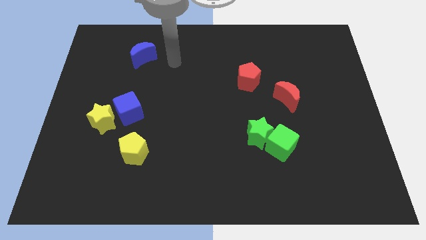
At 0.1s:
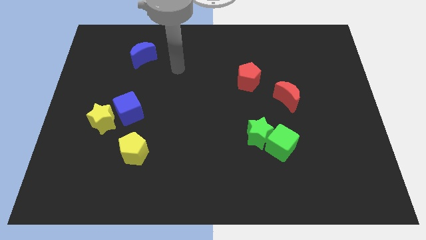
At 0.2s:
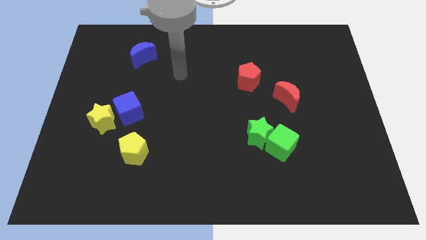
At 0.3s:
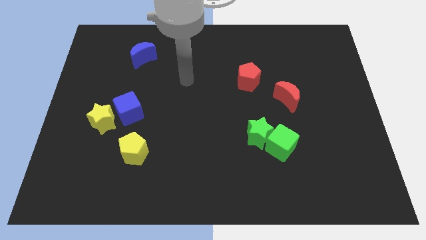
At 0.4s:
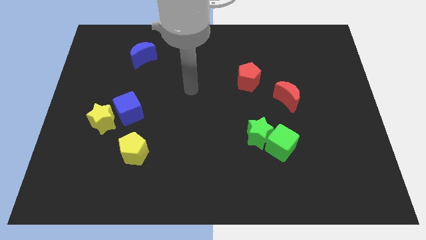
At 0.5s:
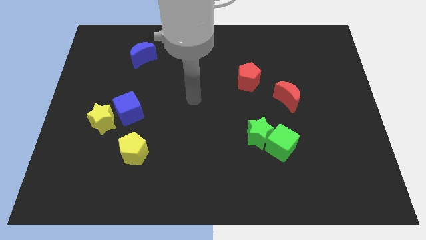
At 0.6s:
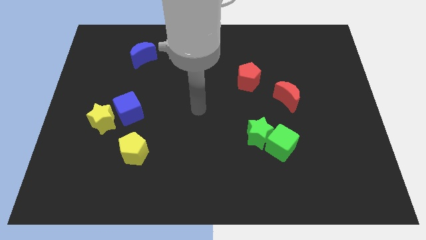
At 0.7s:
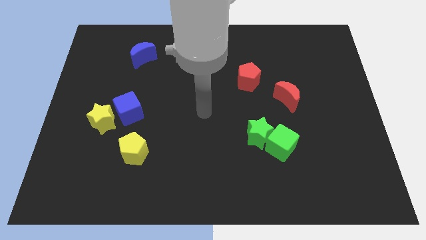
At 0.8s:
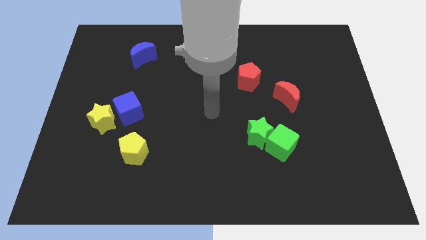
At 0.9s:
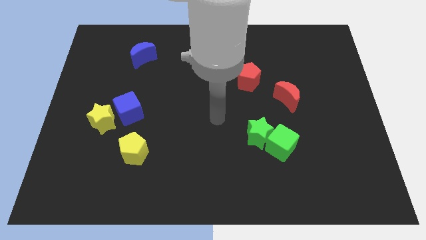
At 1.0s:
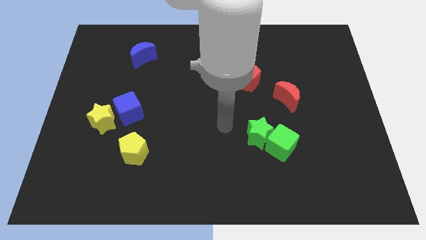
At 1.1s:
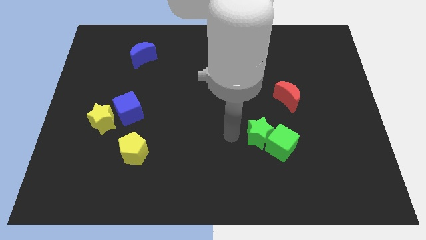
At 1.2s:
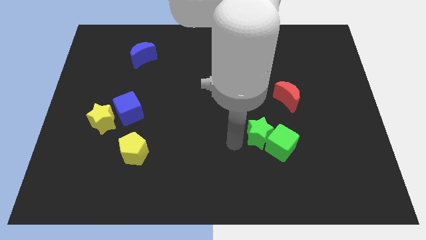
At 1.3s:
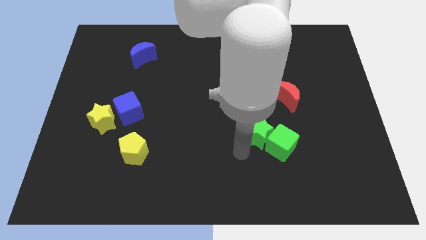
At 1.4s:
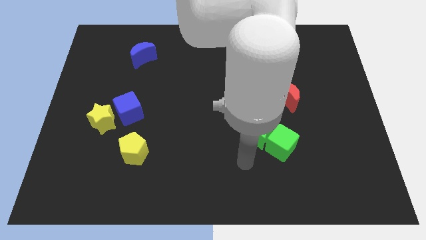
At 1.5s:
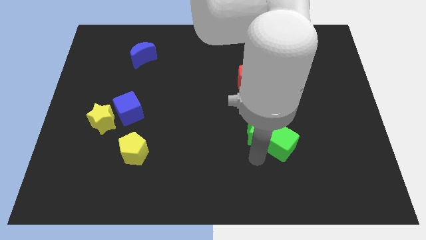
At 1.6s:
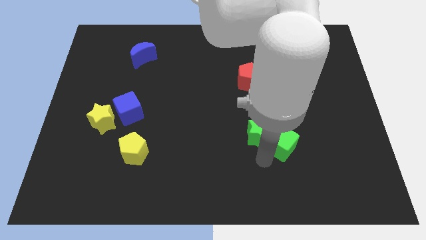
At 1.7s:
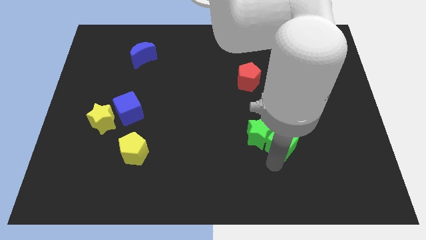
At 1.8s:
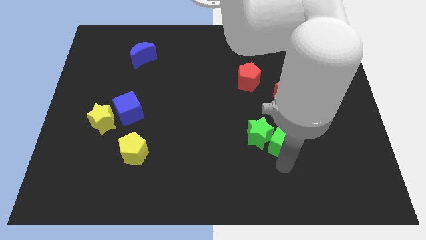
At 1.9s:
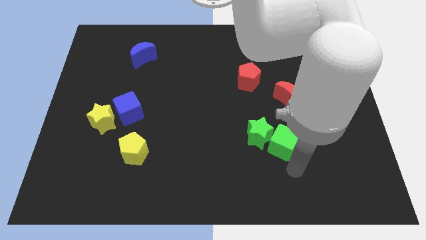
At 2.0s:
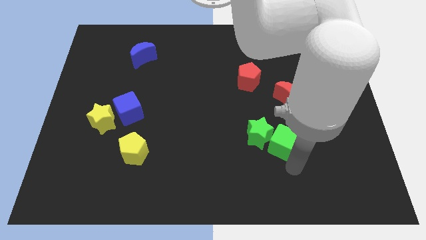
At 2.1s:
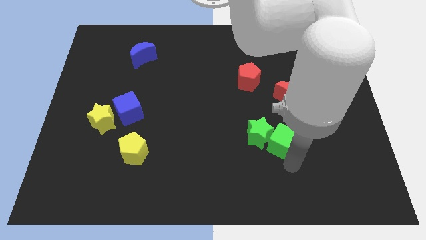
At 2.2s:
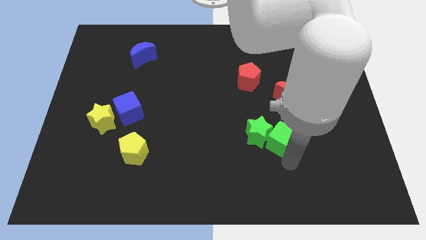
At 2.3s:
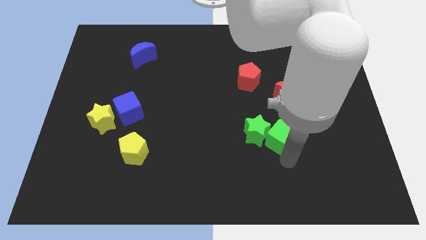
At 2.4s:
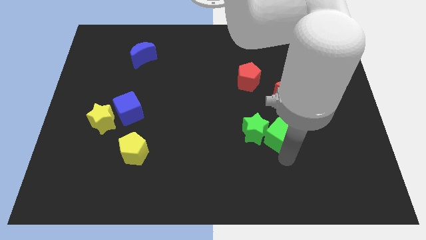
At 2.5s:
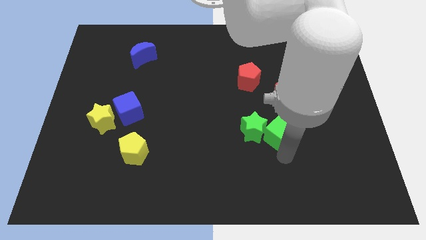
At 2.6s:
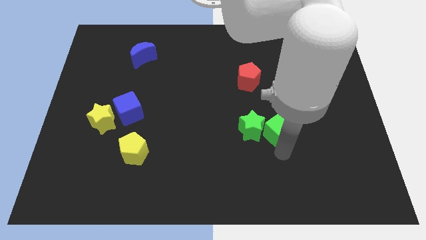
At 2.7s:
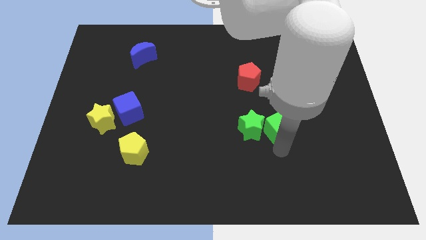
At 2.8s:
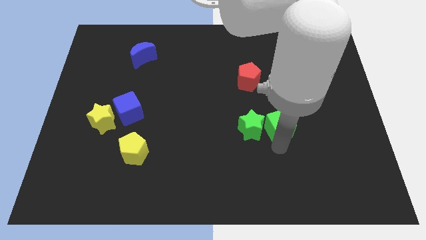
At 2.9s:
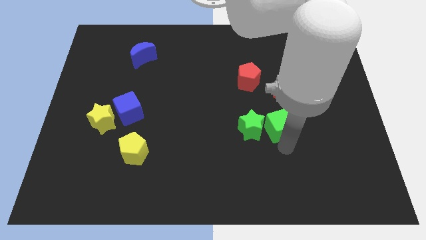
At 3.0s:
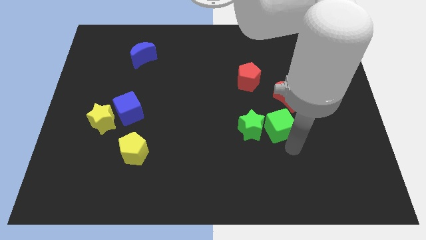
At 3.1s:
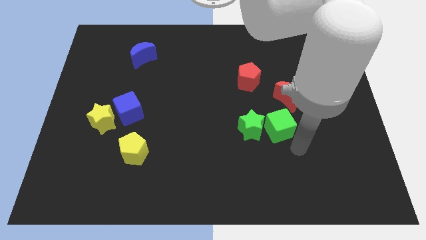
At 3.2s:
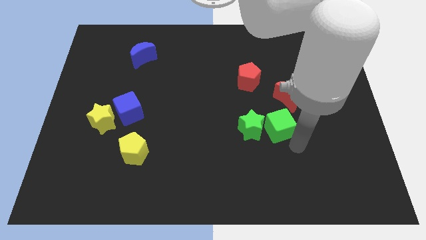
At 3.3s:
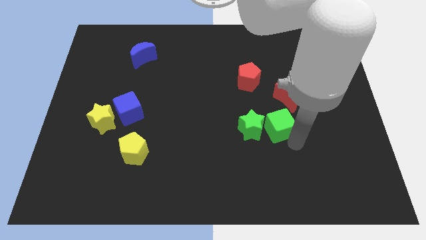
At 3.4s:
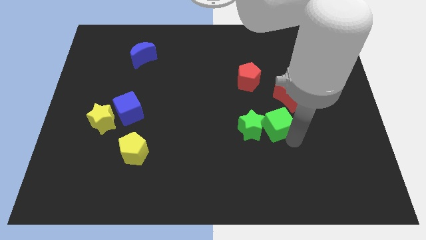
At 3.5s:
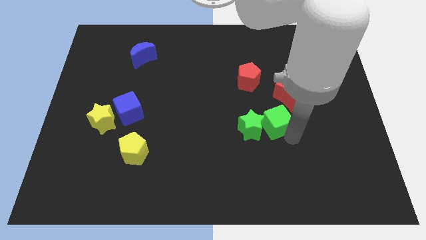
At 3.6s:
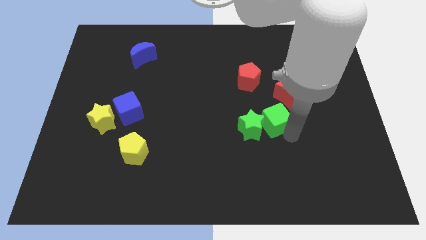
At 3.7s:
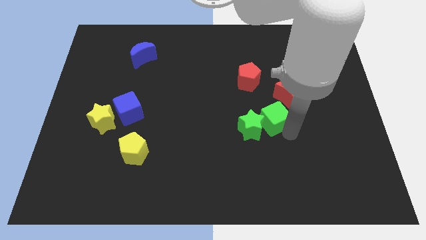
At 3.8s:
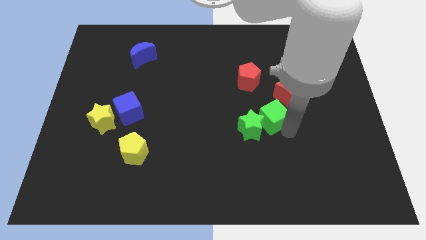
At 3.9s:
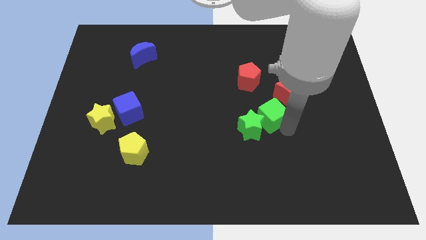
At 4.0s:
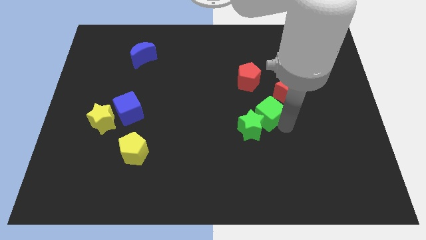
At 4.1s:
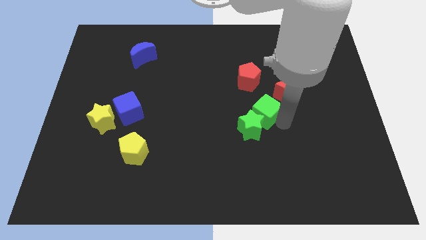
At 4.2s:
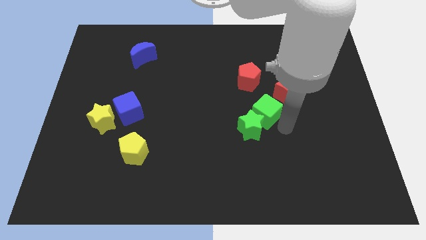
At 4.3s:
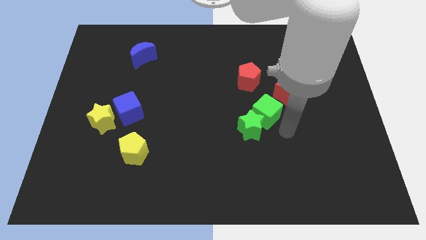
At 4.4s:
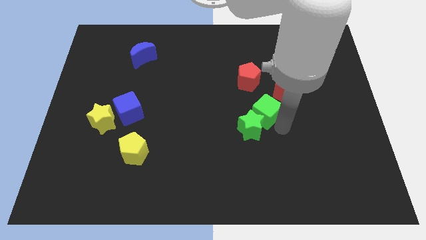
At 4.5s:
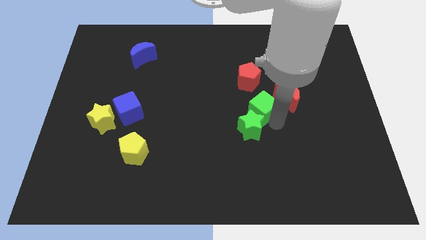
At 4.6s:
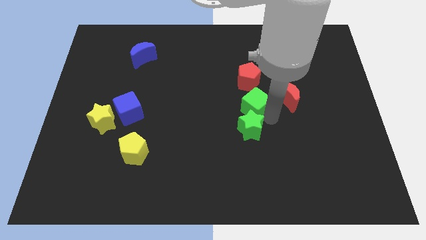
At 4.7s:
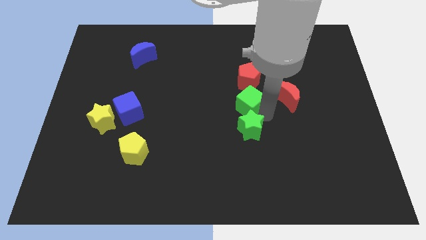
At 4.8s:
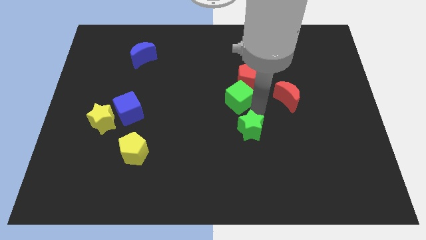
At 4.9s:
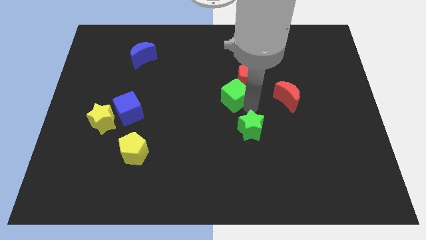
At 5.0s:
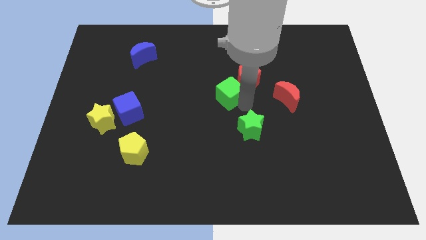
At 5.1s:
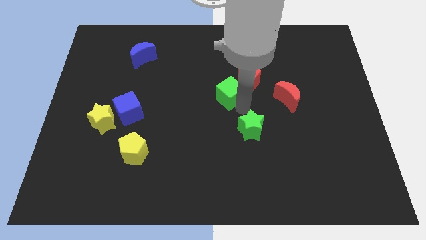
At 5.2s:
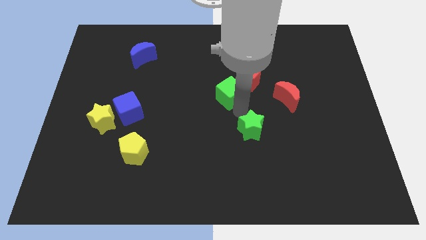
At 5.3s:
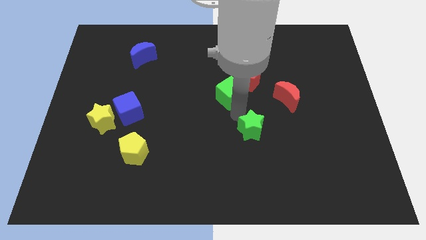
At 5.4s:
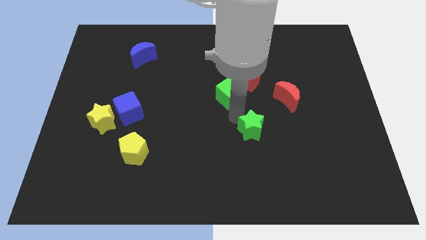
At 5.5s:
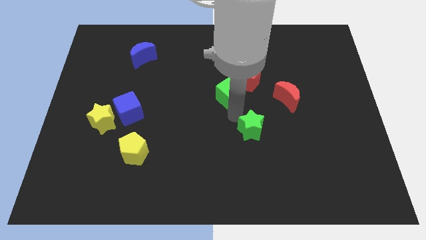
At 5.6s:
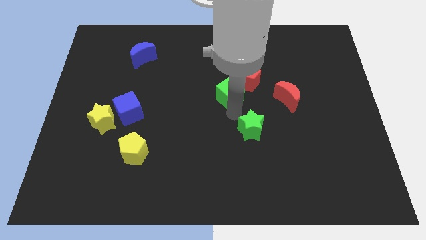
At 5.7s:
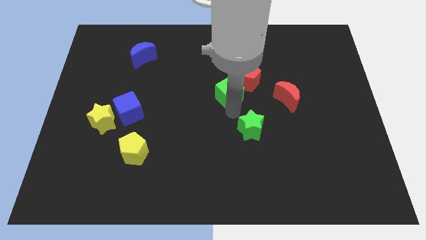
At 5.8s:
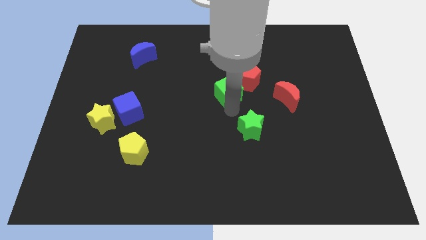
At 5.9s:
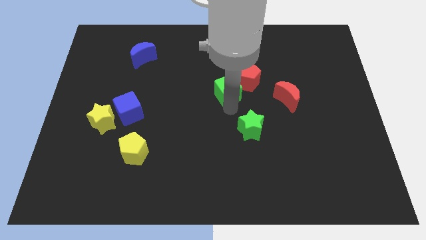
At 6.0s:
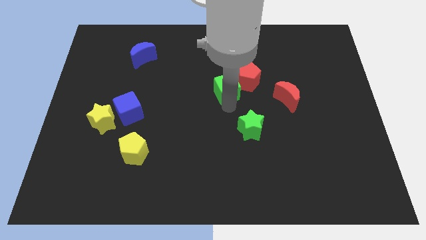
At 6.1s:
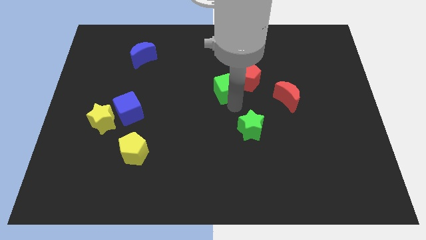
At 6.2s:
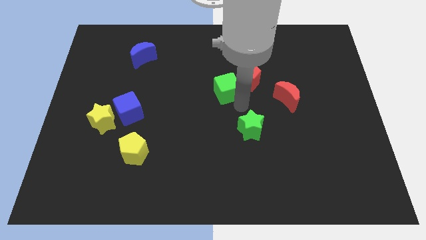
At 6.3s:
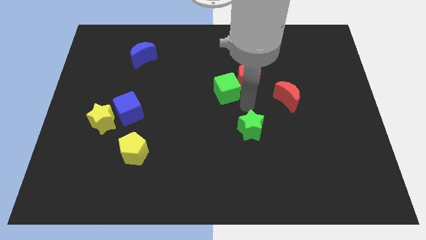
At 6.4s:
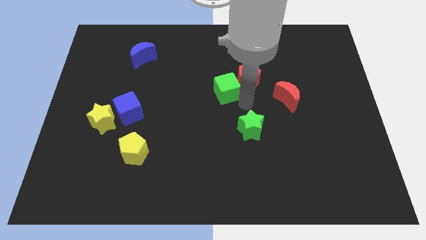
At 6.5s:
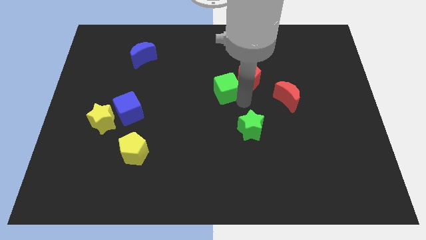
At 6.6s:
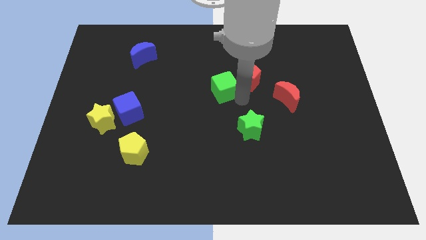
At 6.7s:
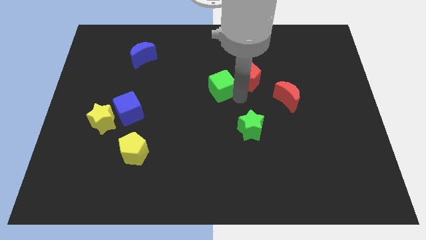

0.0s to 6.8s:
push the green cube upwards and then left

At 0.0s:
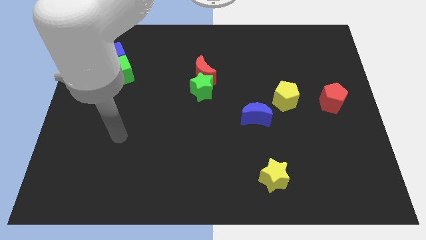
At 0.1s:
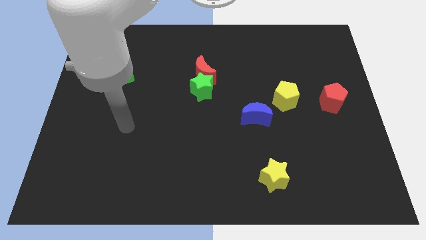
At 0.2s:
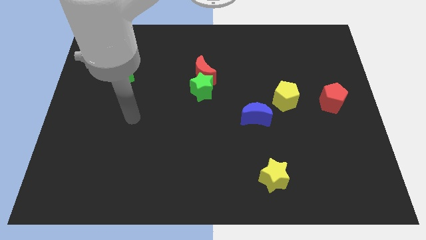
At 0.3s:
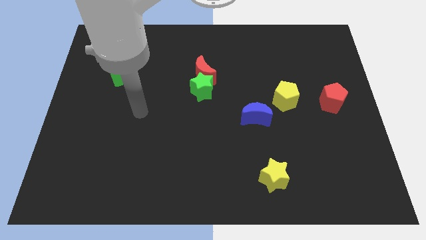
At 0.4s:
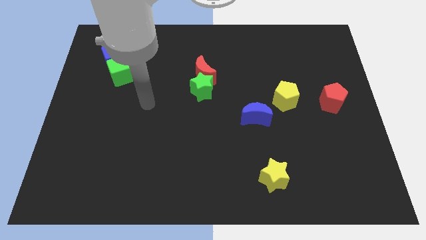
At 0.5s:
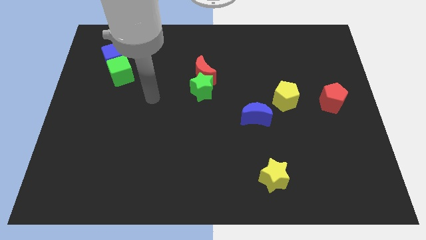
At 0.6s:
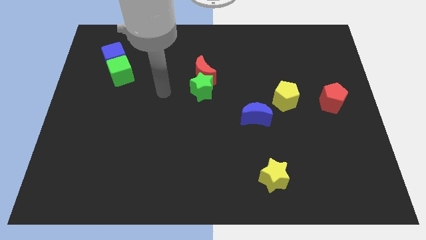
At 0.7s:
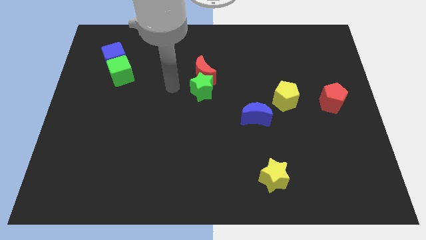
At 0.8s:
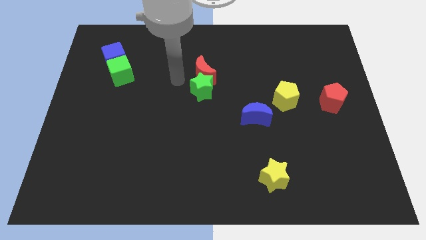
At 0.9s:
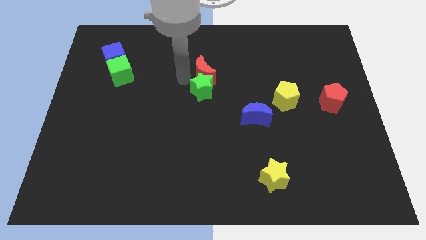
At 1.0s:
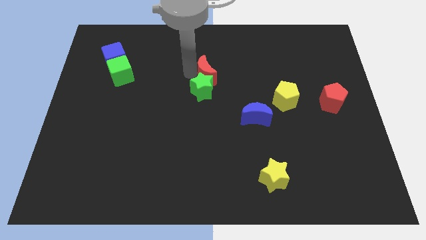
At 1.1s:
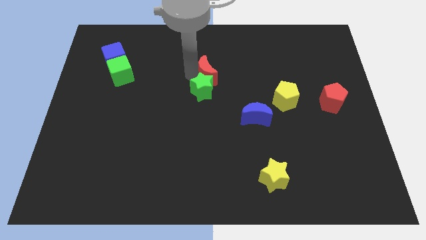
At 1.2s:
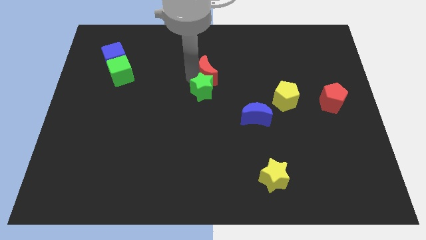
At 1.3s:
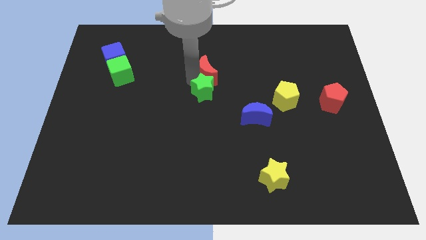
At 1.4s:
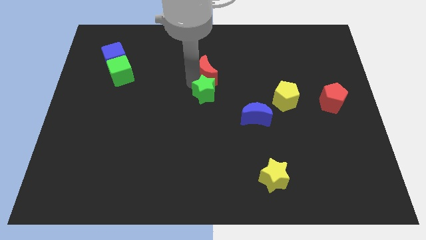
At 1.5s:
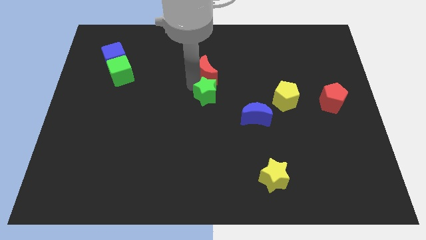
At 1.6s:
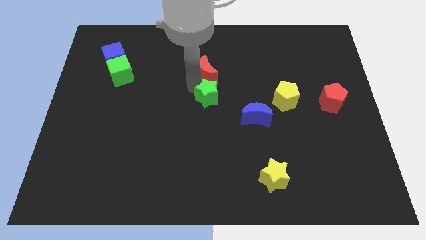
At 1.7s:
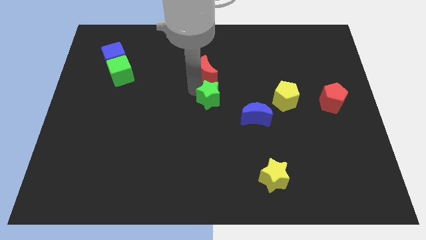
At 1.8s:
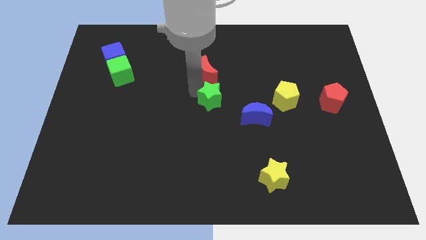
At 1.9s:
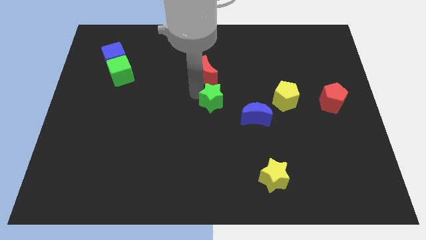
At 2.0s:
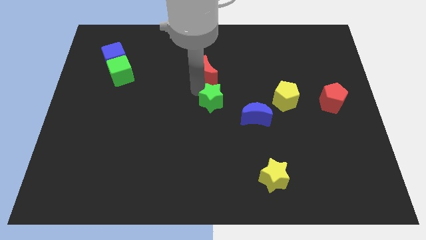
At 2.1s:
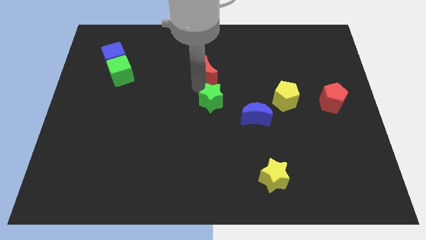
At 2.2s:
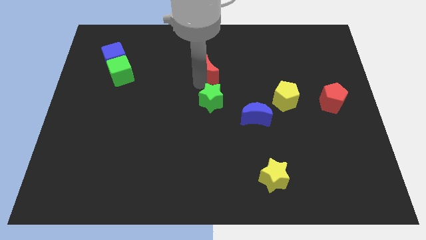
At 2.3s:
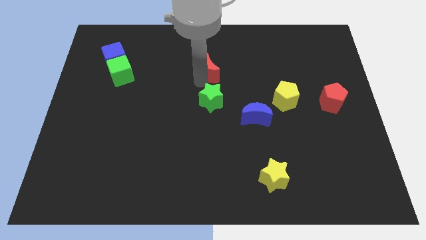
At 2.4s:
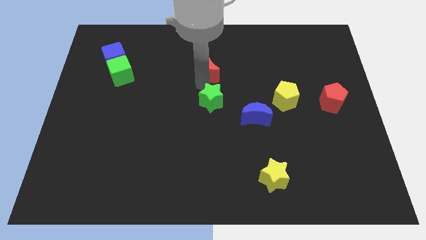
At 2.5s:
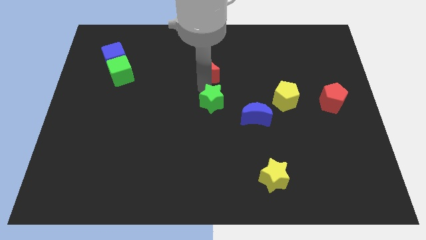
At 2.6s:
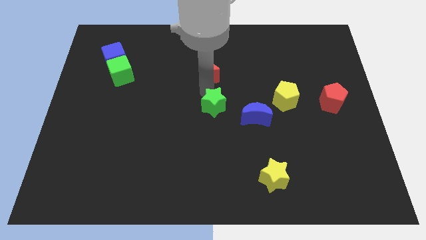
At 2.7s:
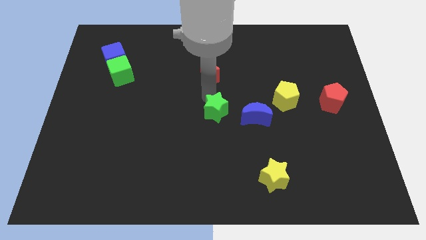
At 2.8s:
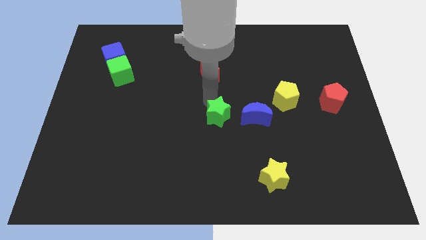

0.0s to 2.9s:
slightly move the green star down and to the right
